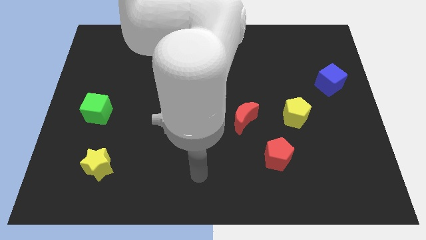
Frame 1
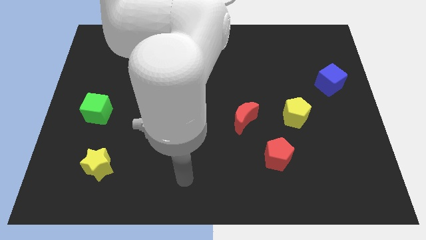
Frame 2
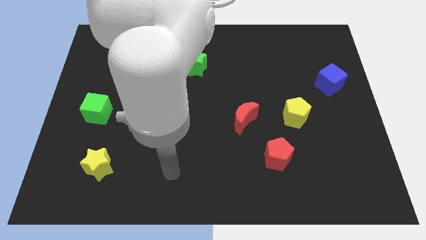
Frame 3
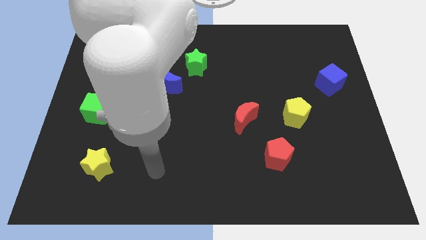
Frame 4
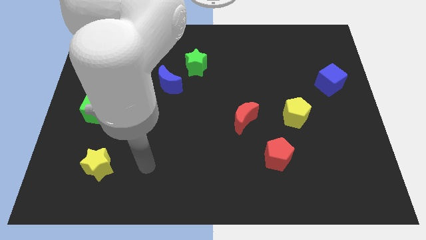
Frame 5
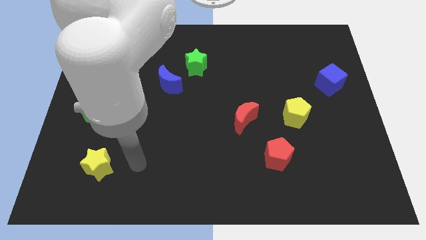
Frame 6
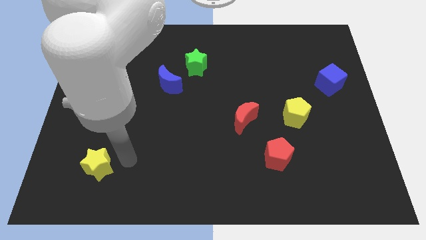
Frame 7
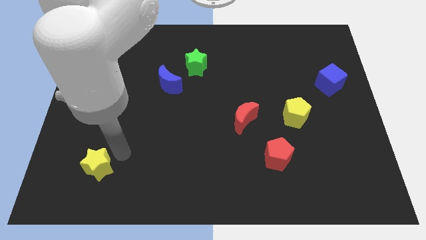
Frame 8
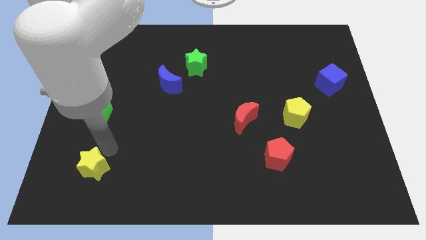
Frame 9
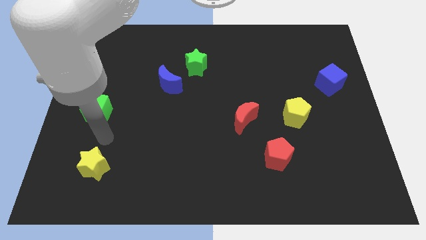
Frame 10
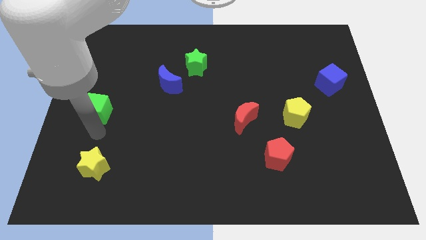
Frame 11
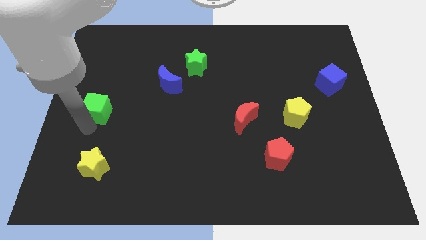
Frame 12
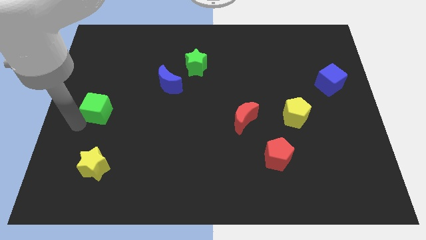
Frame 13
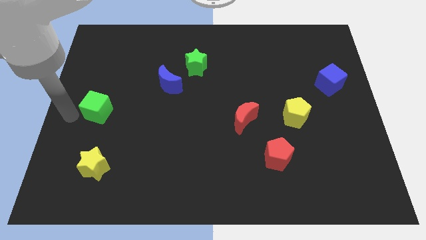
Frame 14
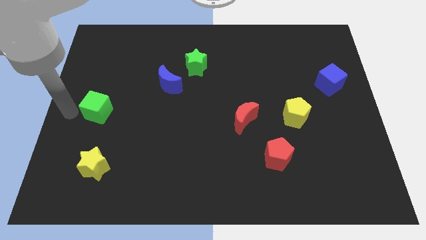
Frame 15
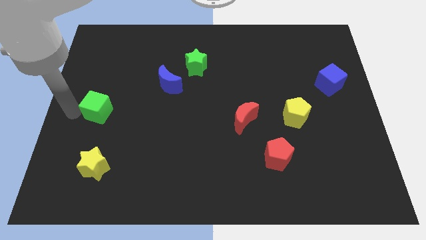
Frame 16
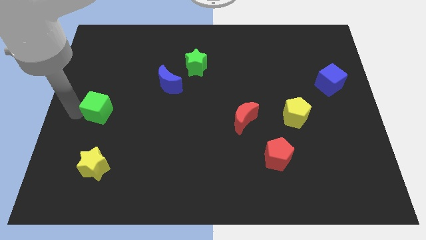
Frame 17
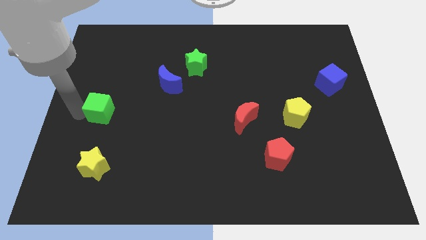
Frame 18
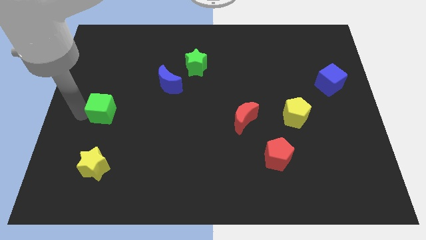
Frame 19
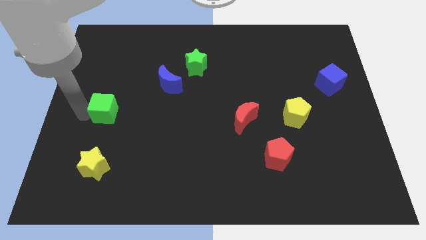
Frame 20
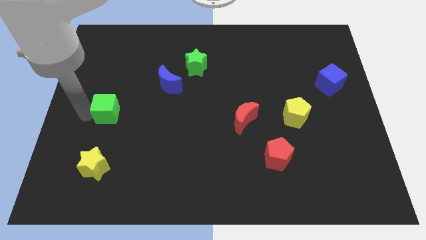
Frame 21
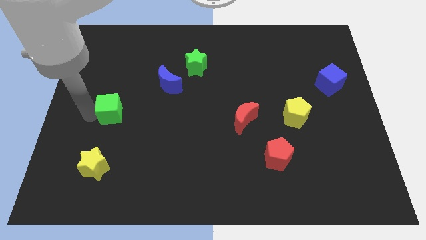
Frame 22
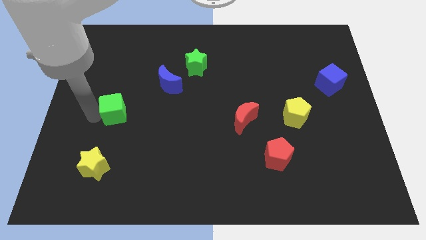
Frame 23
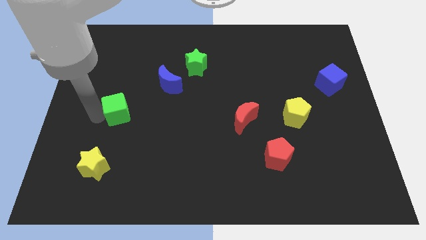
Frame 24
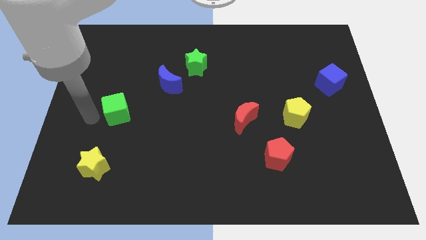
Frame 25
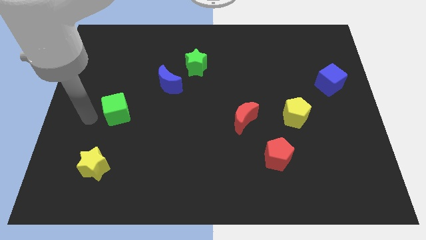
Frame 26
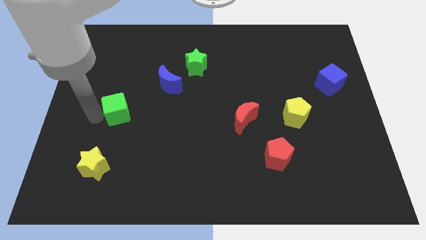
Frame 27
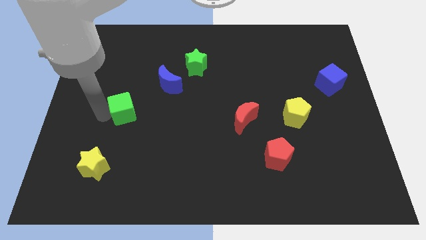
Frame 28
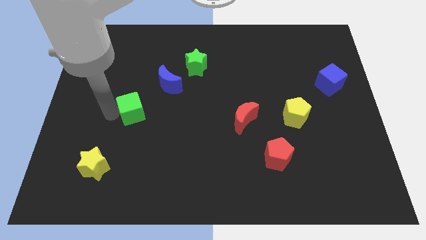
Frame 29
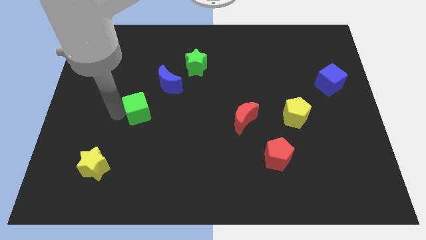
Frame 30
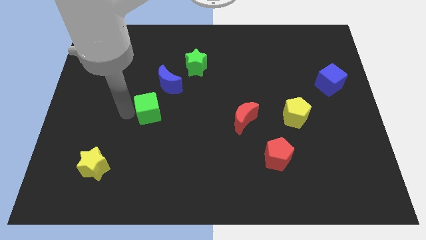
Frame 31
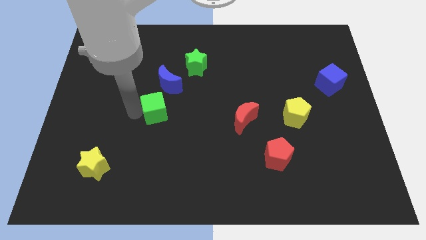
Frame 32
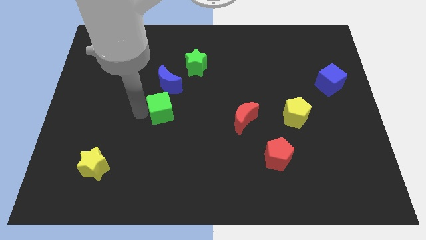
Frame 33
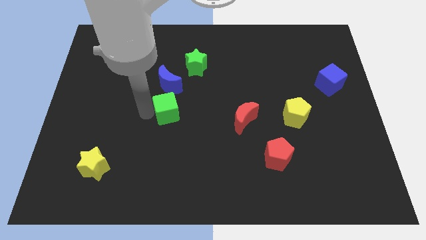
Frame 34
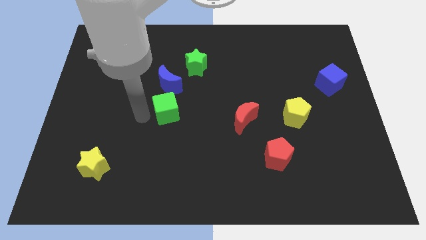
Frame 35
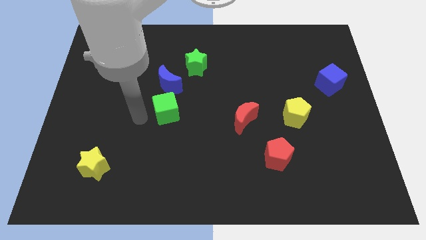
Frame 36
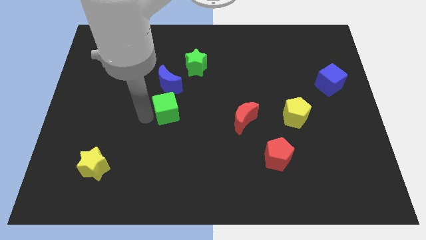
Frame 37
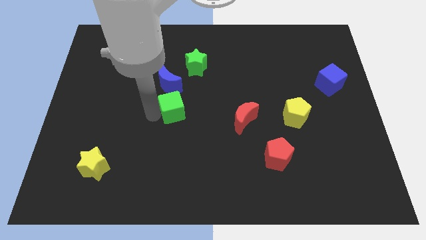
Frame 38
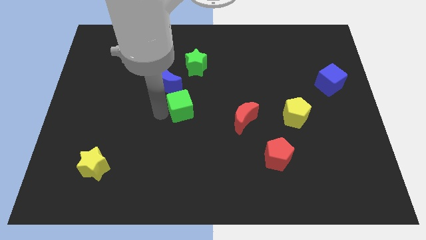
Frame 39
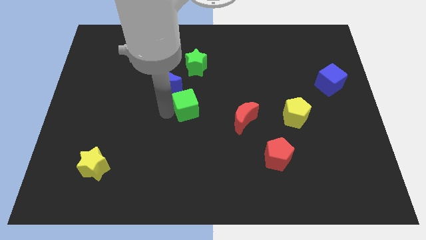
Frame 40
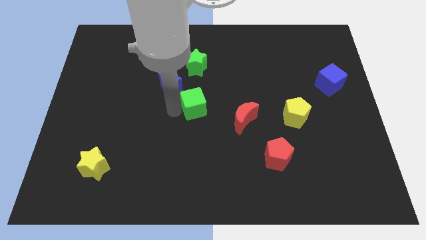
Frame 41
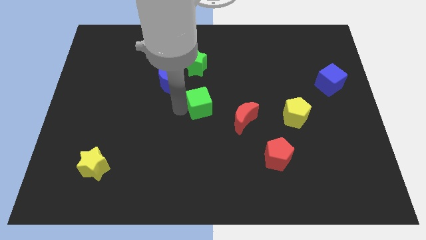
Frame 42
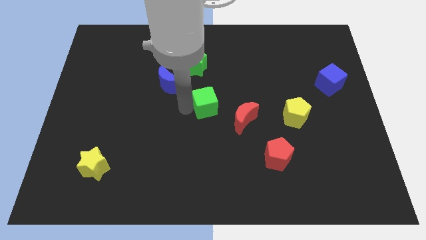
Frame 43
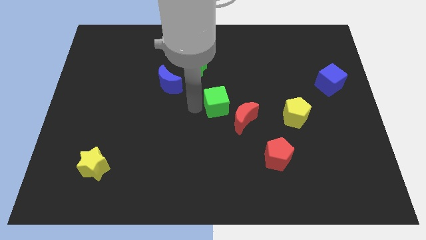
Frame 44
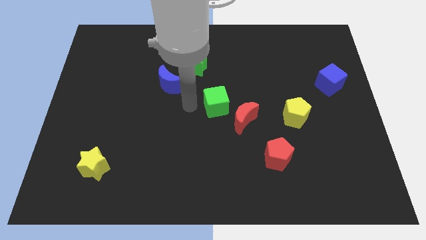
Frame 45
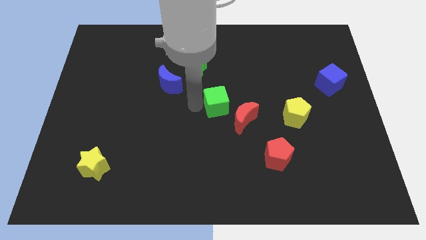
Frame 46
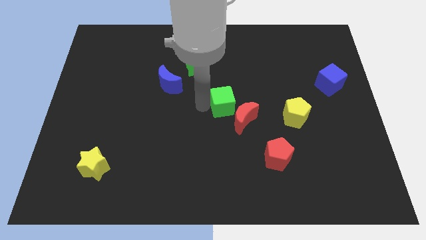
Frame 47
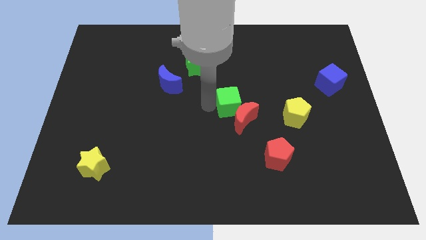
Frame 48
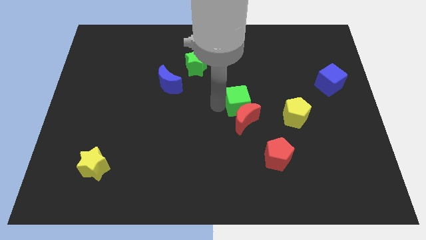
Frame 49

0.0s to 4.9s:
put the green cube to the top right side of the red moon

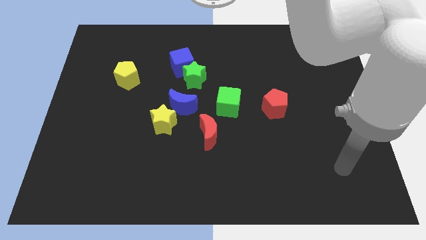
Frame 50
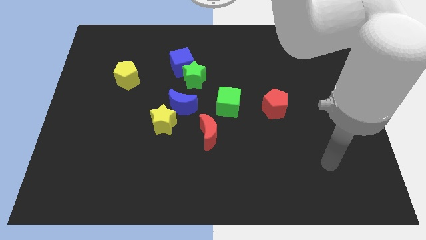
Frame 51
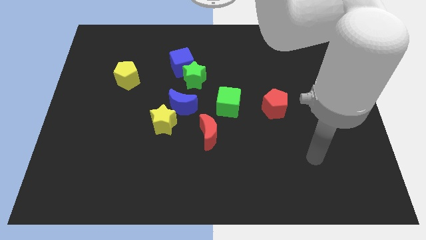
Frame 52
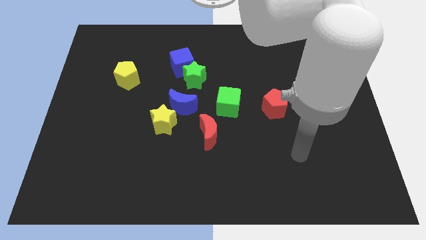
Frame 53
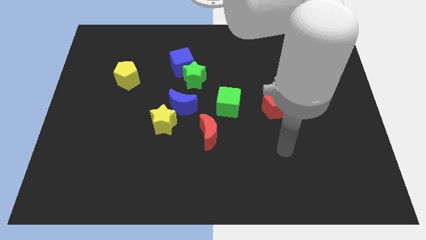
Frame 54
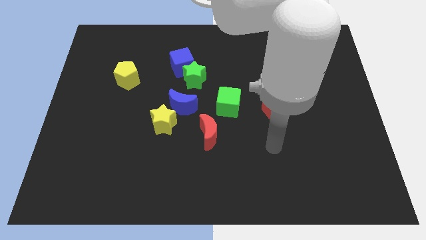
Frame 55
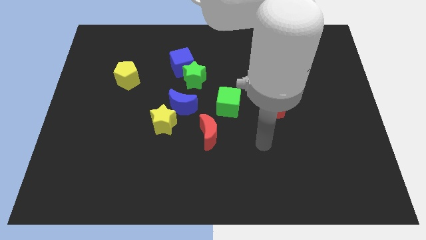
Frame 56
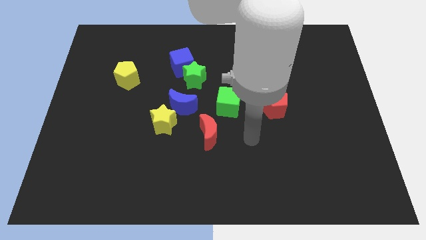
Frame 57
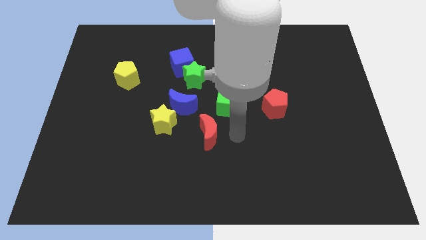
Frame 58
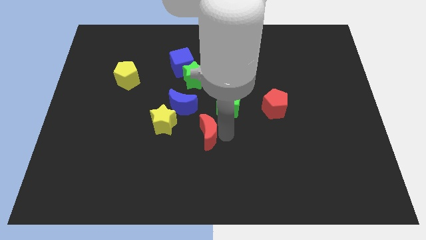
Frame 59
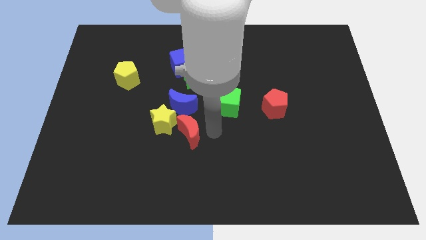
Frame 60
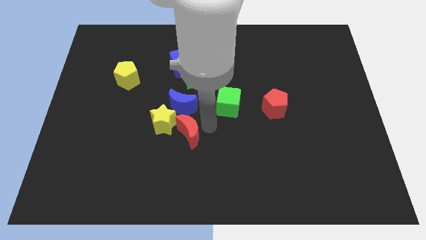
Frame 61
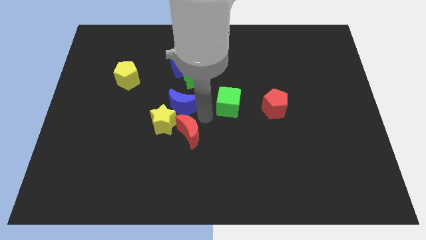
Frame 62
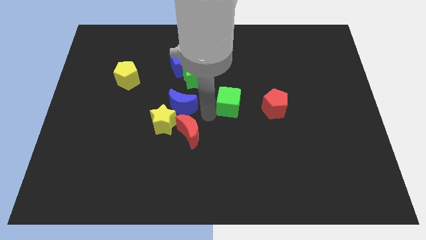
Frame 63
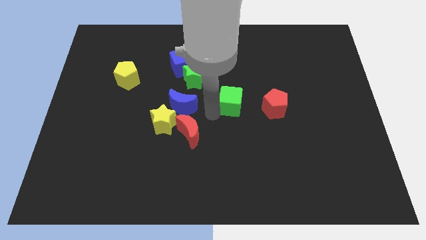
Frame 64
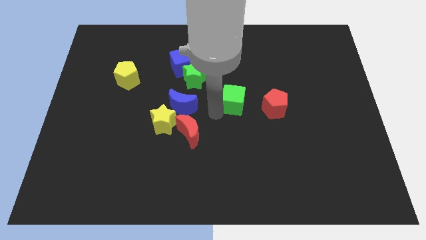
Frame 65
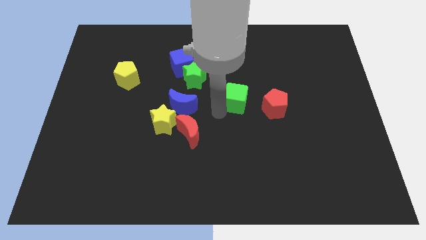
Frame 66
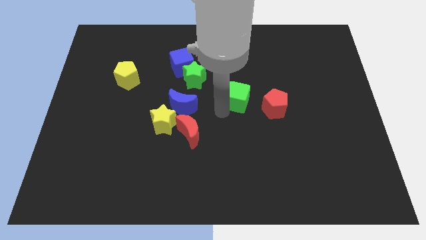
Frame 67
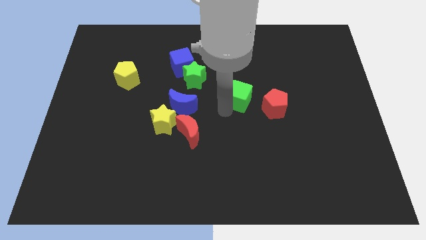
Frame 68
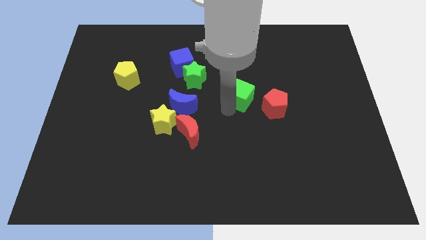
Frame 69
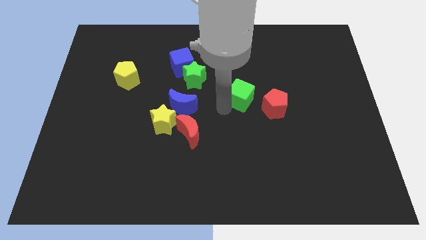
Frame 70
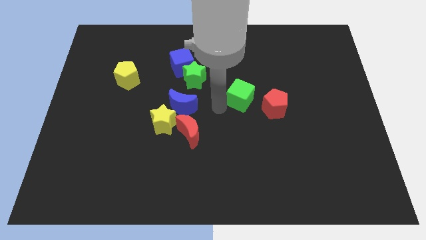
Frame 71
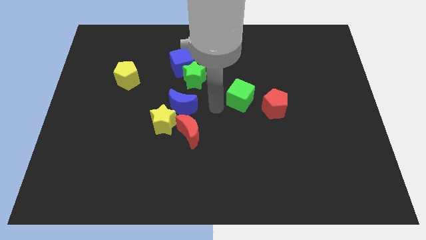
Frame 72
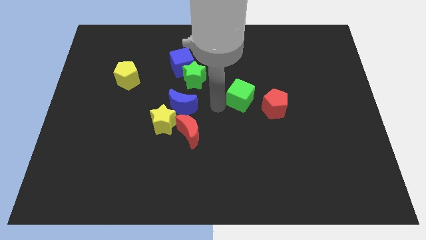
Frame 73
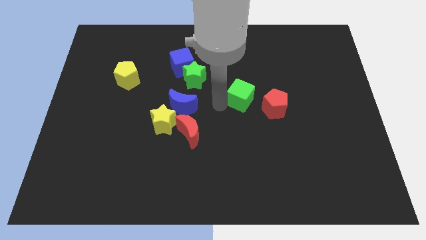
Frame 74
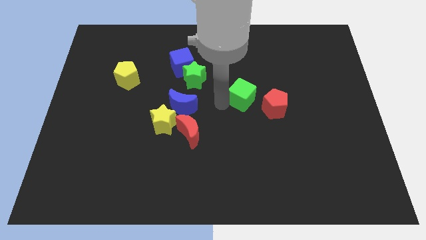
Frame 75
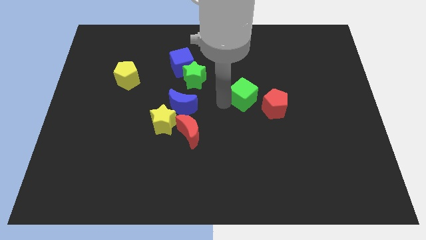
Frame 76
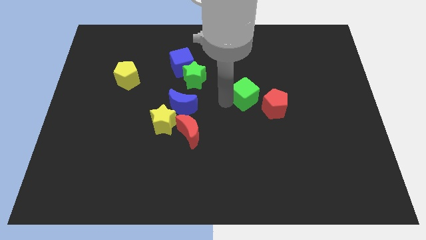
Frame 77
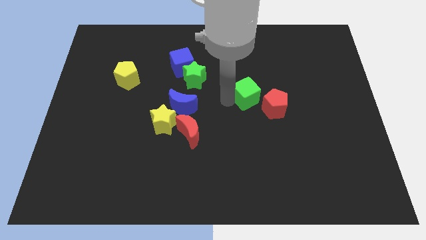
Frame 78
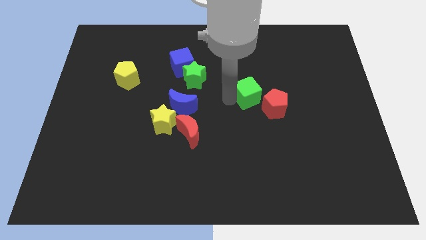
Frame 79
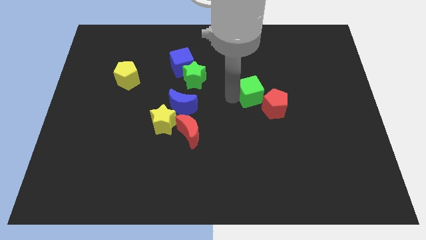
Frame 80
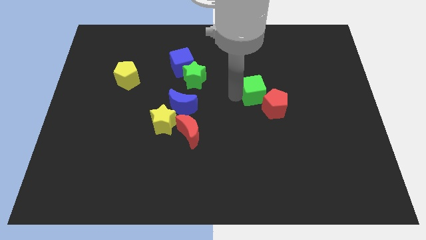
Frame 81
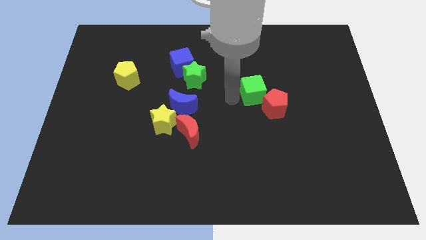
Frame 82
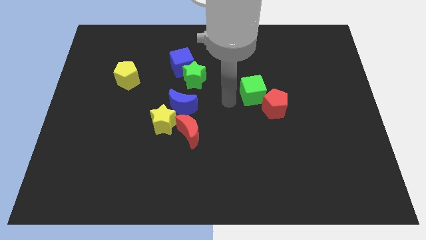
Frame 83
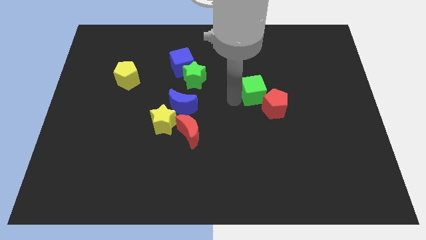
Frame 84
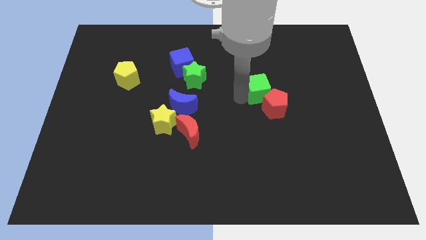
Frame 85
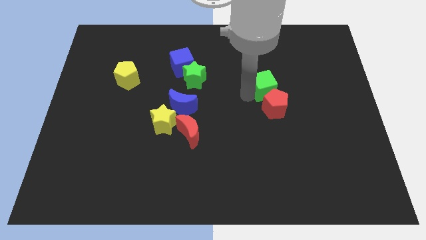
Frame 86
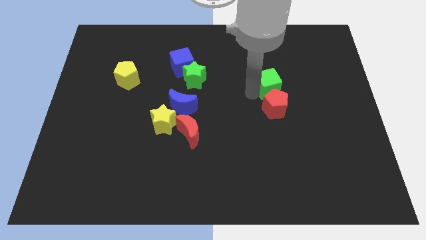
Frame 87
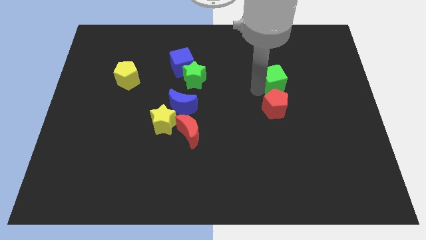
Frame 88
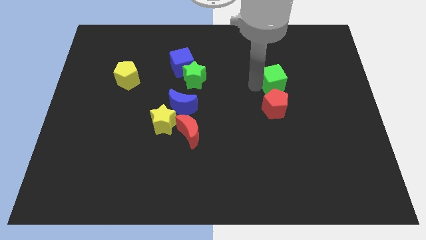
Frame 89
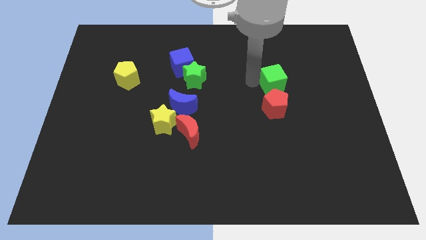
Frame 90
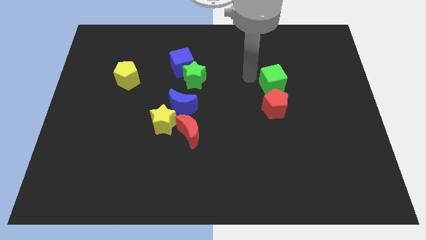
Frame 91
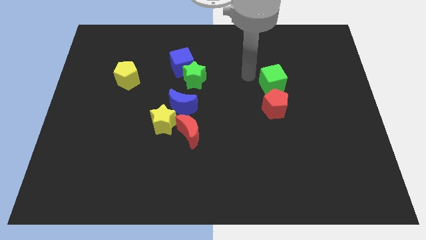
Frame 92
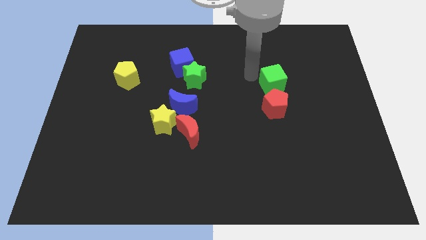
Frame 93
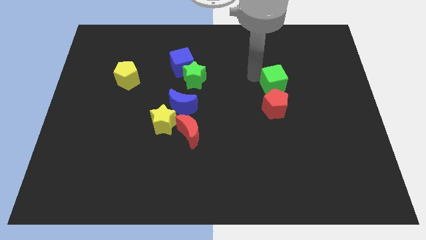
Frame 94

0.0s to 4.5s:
put the green cube diagonally up and to the right of the red pentagon
